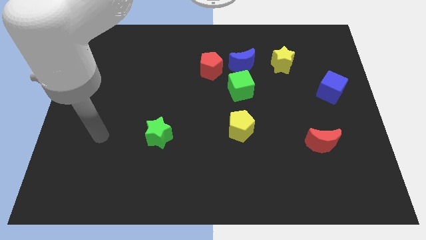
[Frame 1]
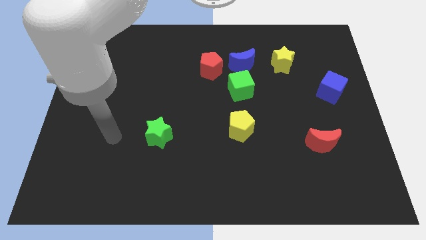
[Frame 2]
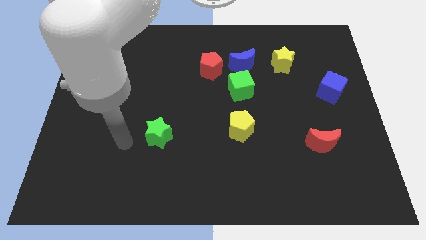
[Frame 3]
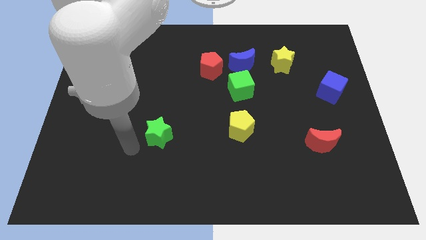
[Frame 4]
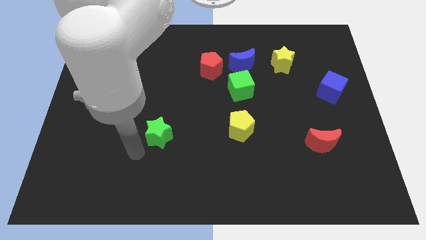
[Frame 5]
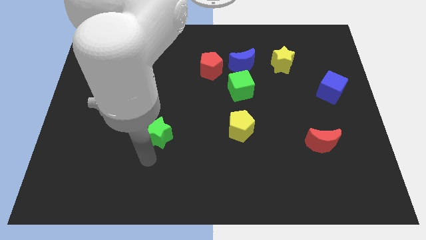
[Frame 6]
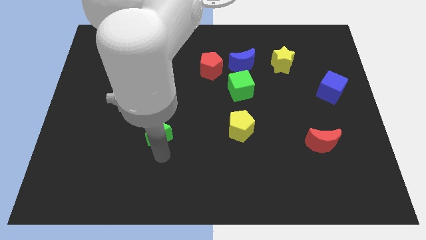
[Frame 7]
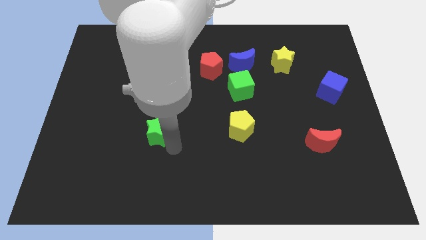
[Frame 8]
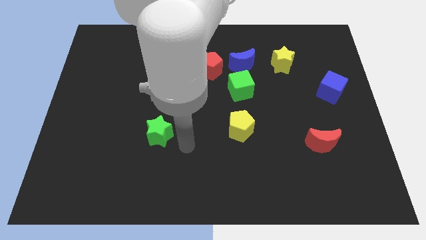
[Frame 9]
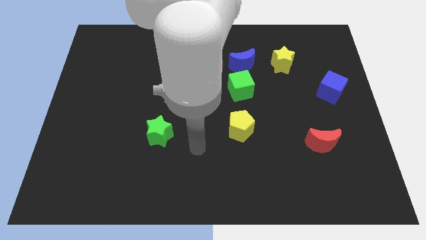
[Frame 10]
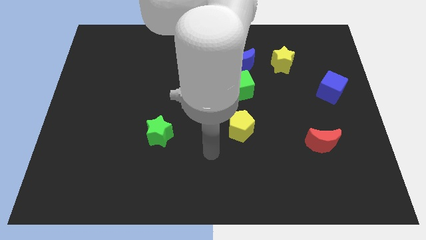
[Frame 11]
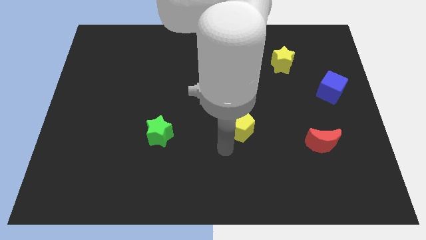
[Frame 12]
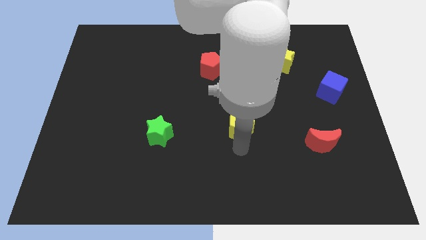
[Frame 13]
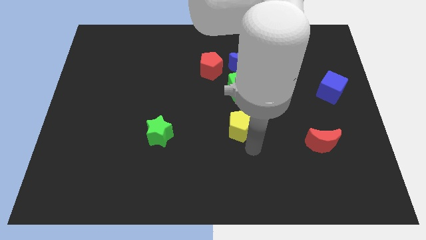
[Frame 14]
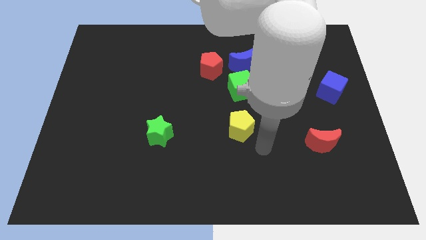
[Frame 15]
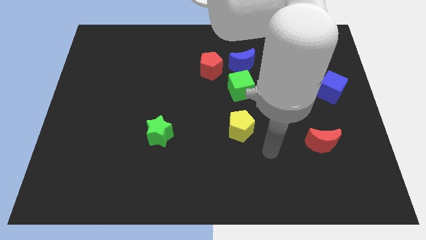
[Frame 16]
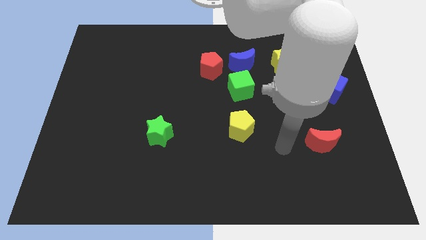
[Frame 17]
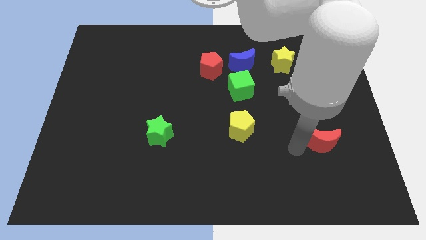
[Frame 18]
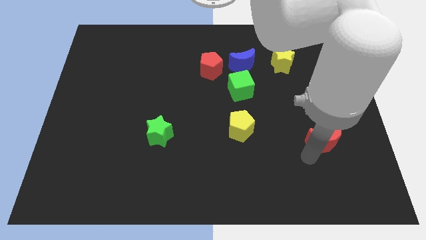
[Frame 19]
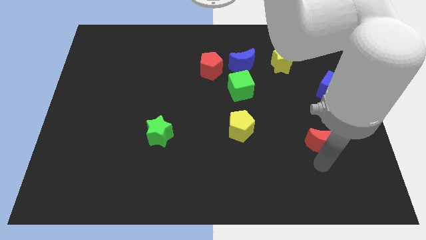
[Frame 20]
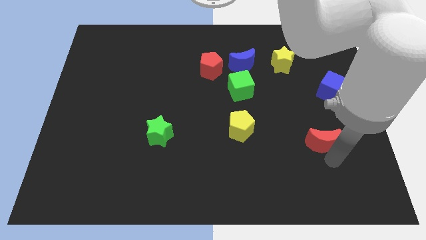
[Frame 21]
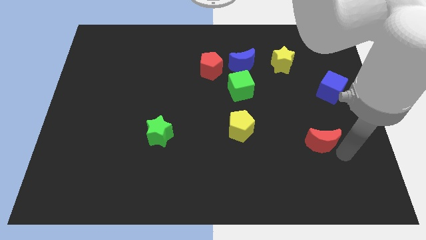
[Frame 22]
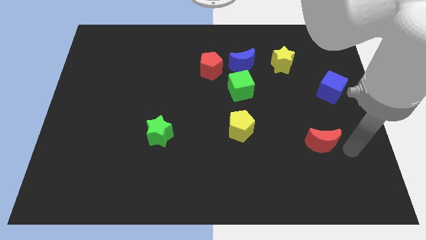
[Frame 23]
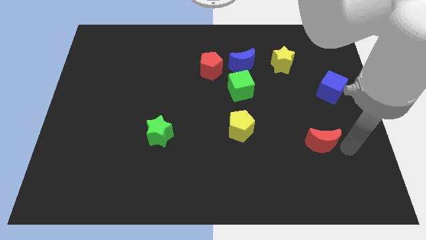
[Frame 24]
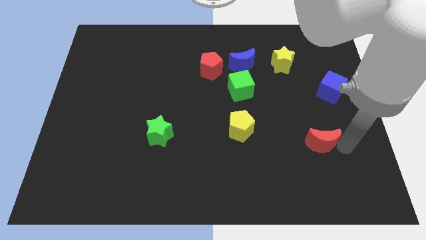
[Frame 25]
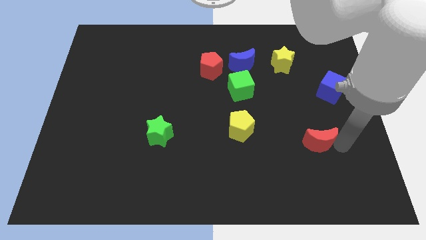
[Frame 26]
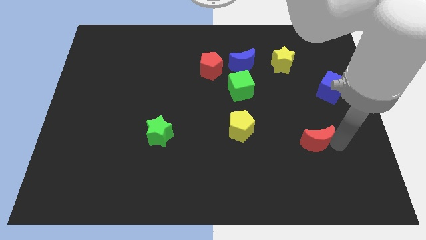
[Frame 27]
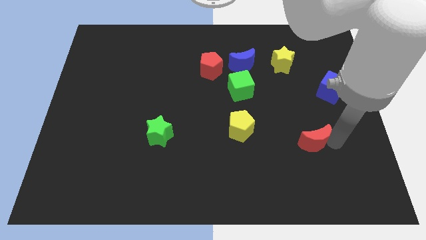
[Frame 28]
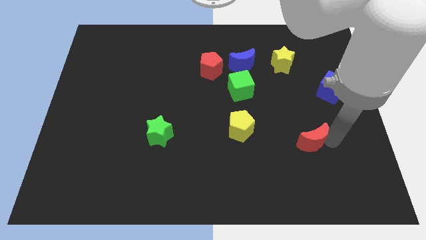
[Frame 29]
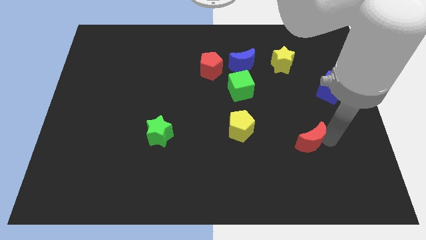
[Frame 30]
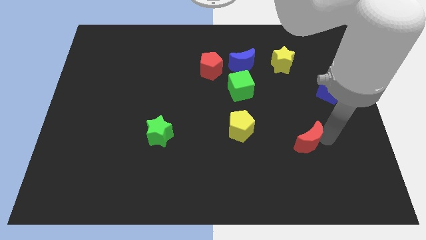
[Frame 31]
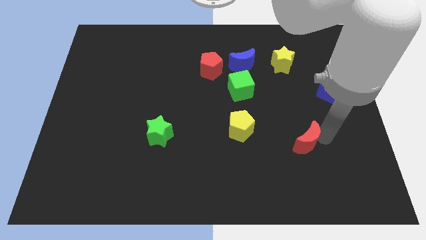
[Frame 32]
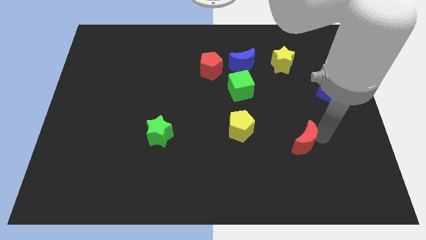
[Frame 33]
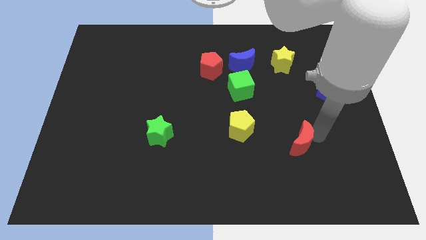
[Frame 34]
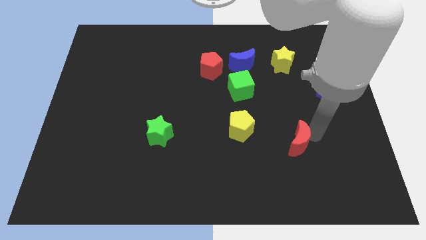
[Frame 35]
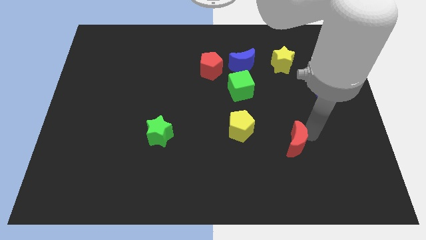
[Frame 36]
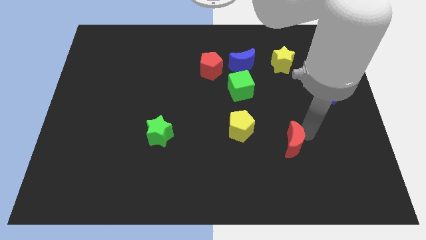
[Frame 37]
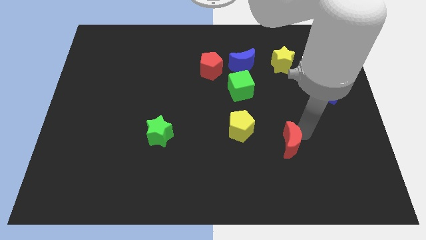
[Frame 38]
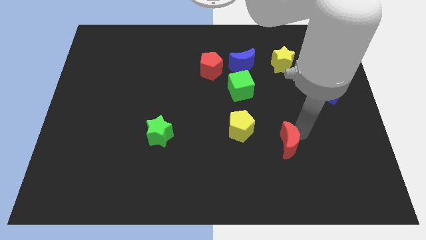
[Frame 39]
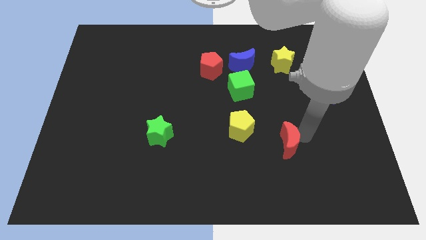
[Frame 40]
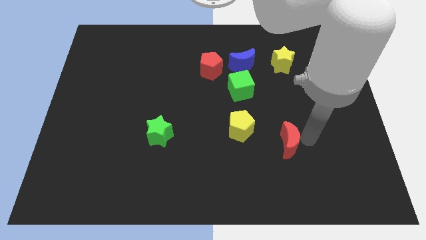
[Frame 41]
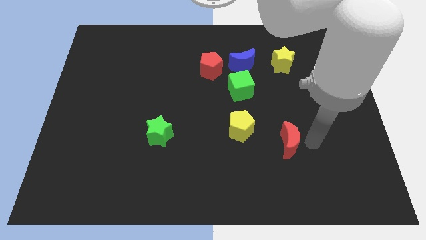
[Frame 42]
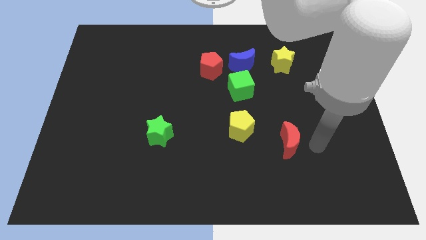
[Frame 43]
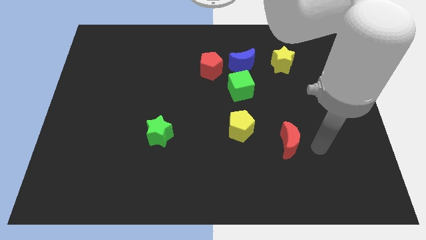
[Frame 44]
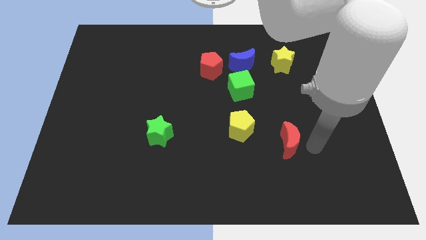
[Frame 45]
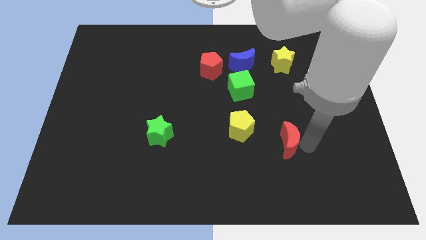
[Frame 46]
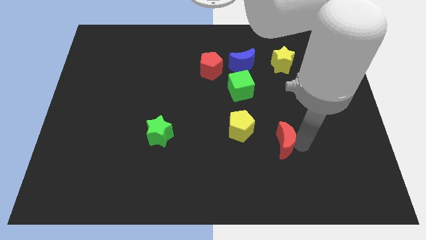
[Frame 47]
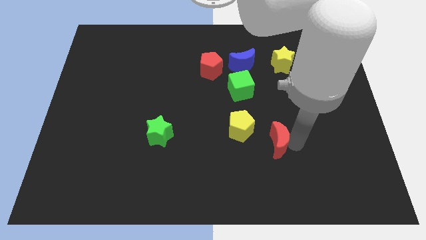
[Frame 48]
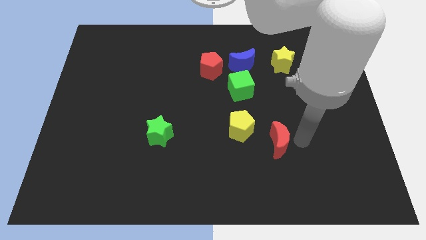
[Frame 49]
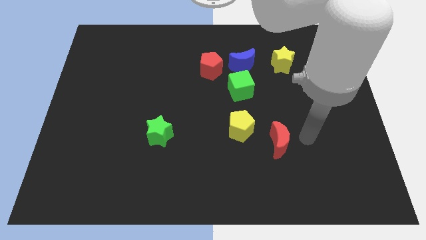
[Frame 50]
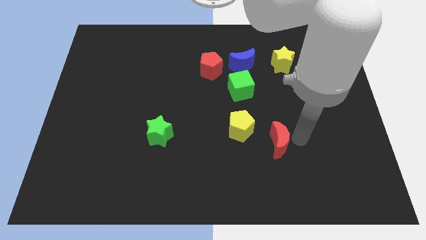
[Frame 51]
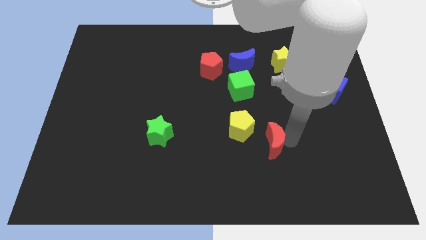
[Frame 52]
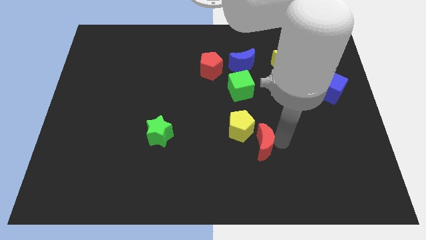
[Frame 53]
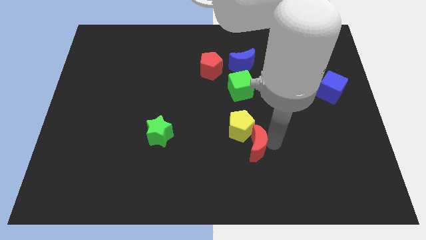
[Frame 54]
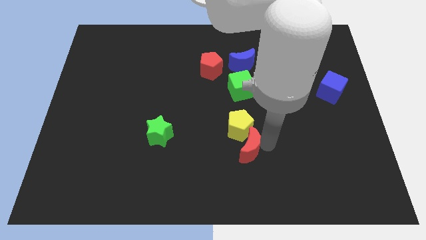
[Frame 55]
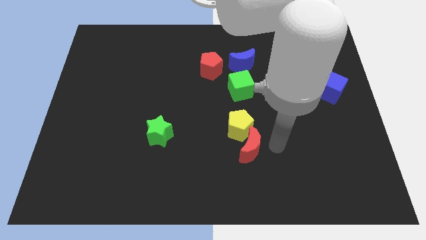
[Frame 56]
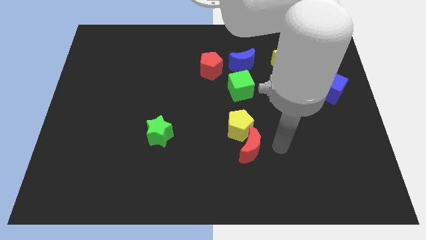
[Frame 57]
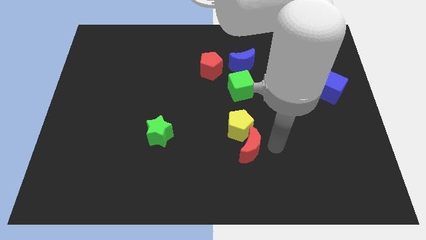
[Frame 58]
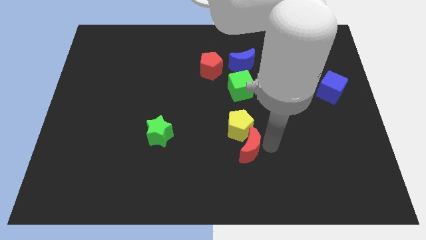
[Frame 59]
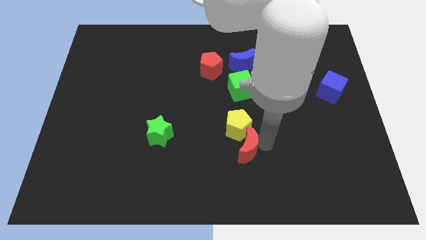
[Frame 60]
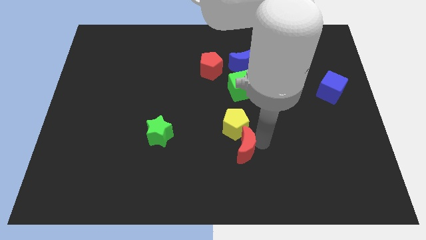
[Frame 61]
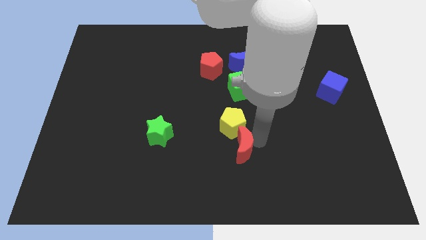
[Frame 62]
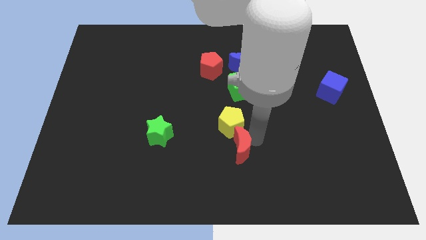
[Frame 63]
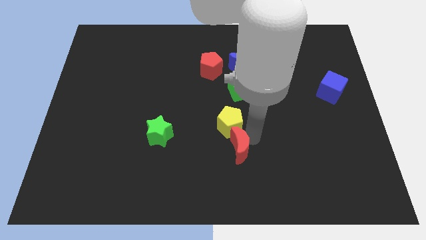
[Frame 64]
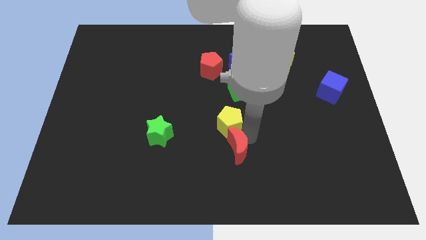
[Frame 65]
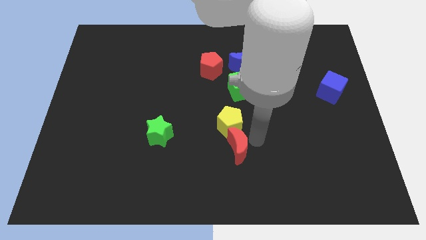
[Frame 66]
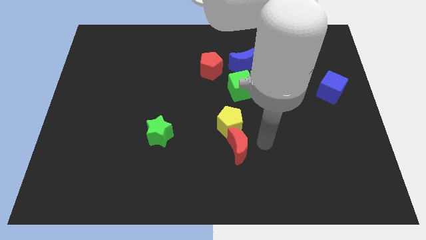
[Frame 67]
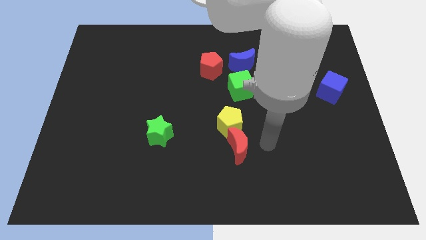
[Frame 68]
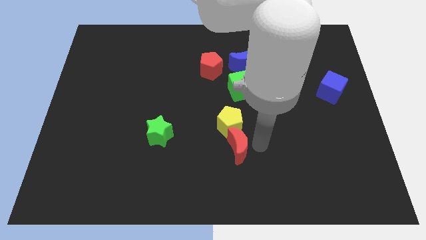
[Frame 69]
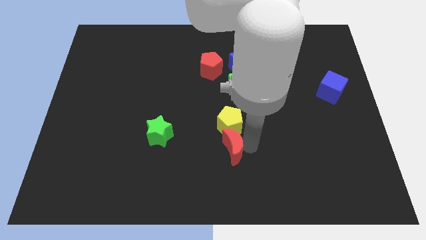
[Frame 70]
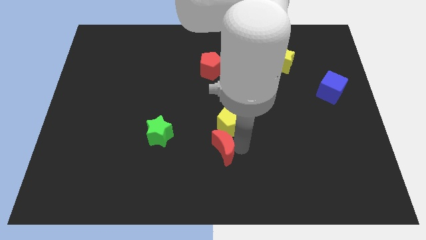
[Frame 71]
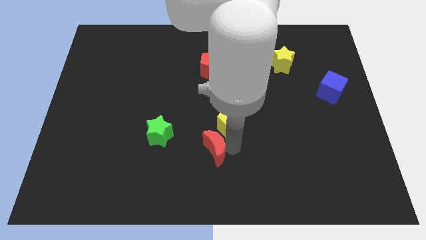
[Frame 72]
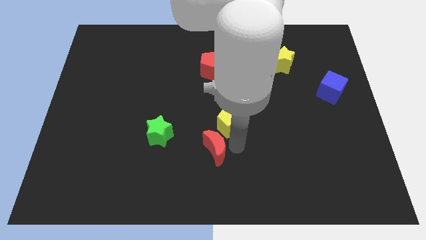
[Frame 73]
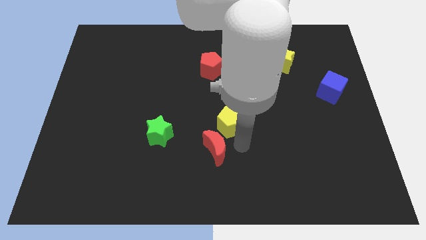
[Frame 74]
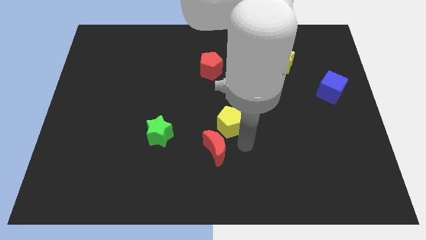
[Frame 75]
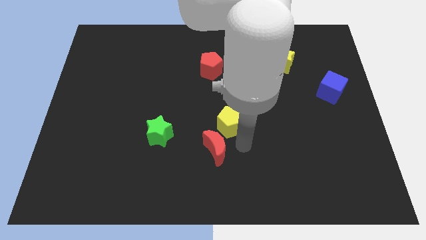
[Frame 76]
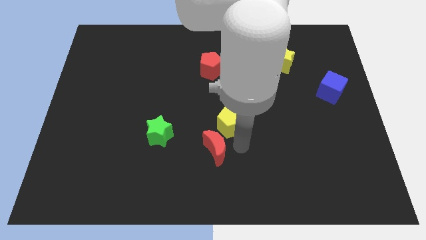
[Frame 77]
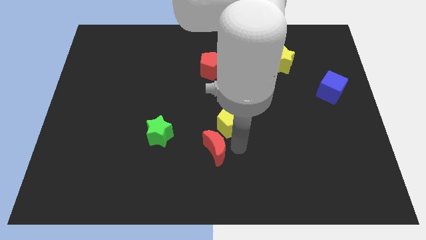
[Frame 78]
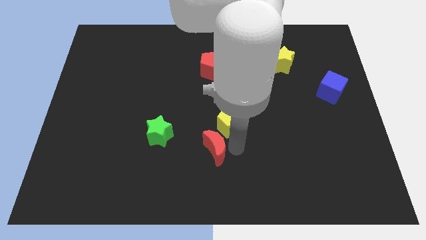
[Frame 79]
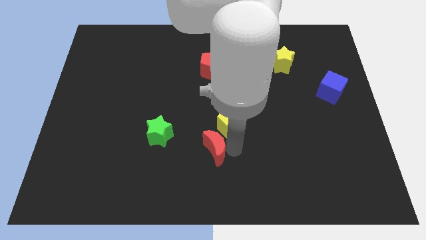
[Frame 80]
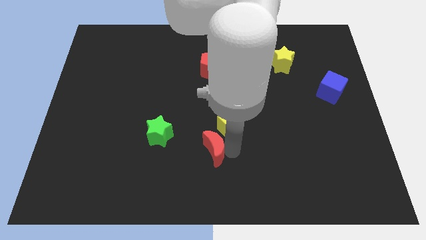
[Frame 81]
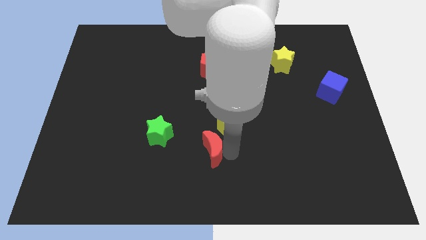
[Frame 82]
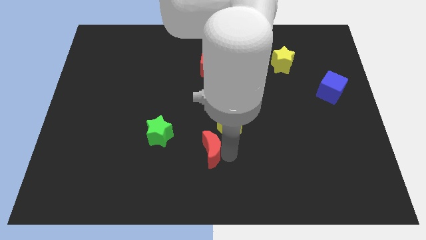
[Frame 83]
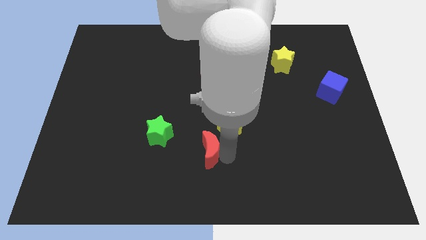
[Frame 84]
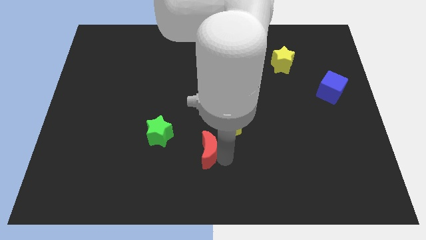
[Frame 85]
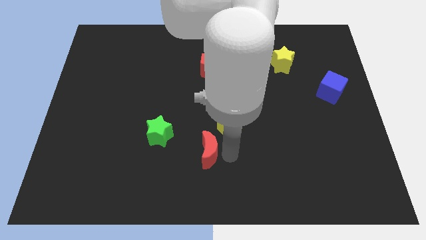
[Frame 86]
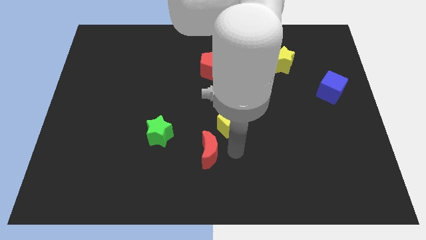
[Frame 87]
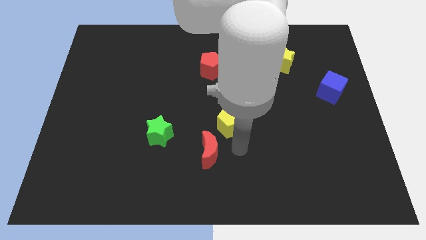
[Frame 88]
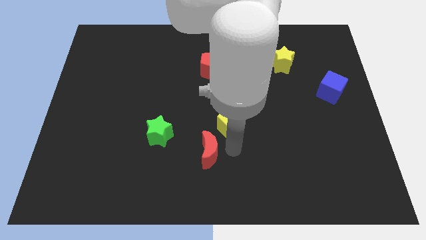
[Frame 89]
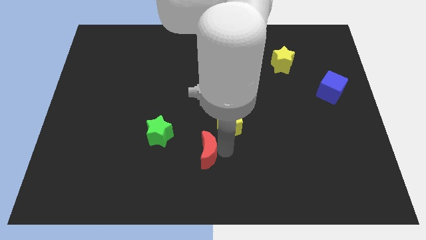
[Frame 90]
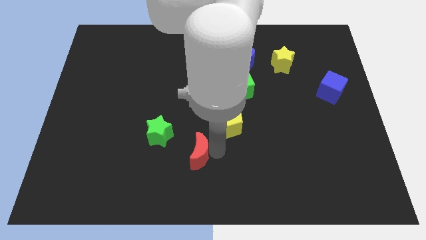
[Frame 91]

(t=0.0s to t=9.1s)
slide the red moon to the bottom right side of the green star
